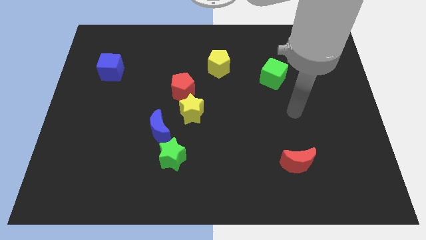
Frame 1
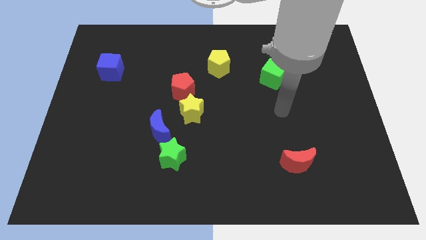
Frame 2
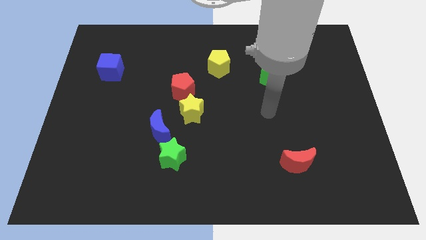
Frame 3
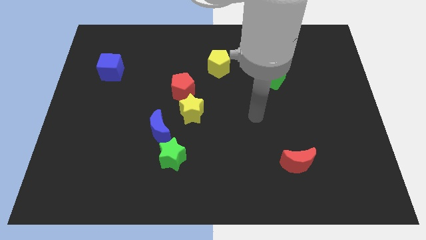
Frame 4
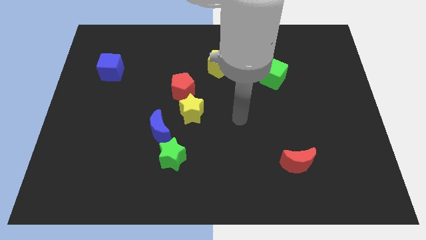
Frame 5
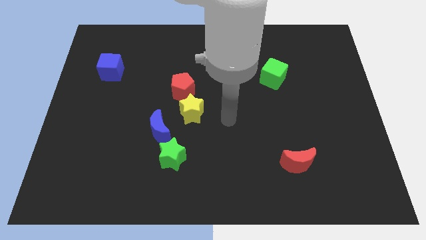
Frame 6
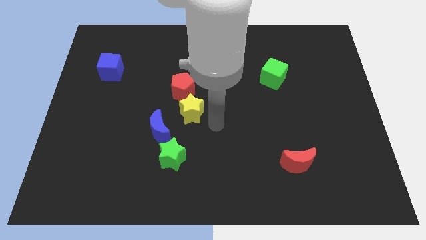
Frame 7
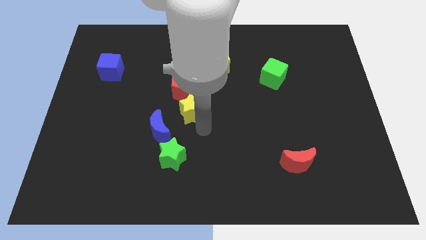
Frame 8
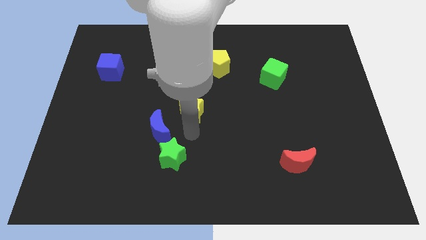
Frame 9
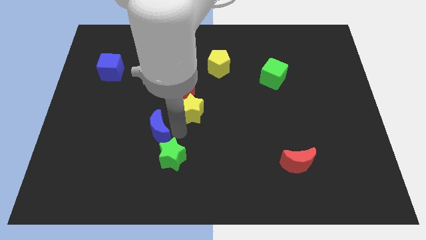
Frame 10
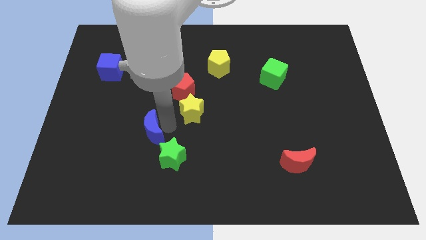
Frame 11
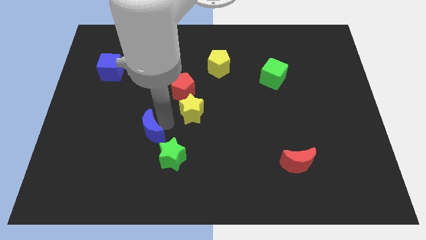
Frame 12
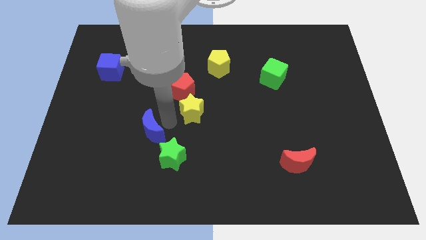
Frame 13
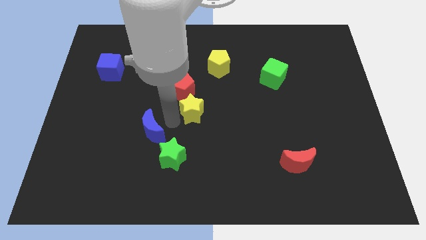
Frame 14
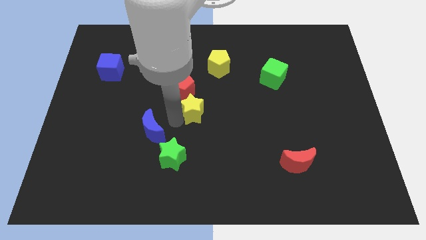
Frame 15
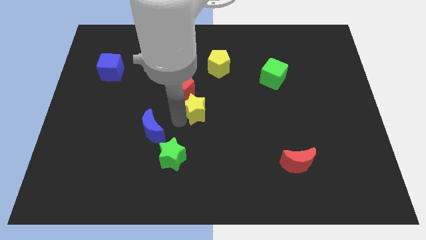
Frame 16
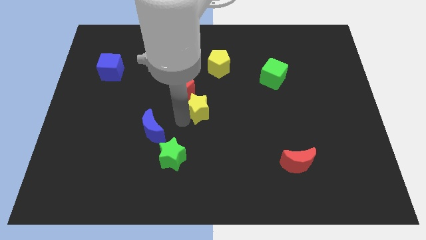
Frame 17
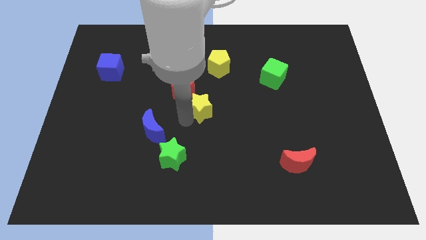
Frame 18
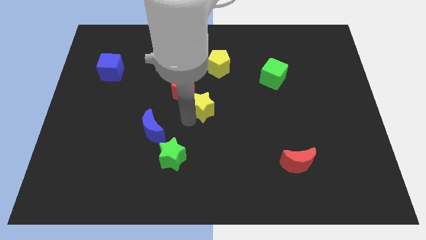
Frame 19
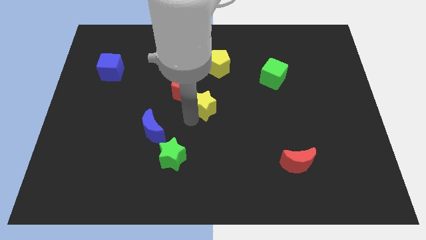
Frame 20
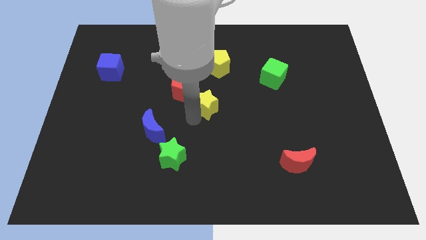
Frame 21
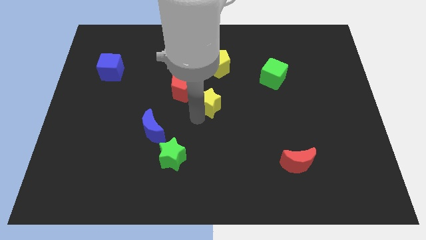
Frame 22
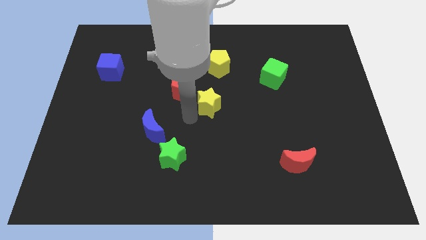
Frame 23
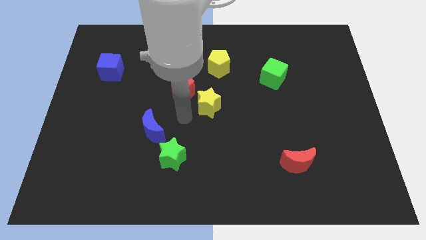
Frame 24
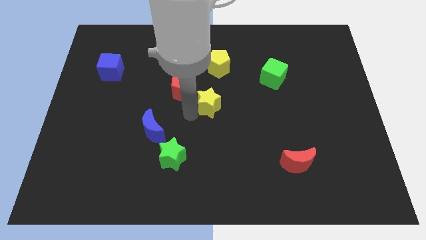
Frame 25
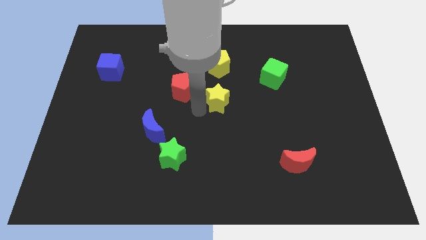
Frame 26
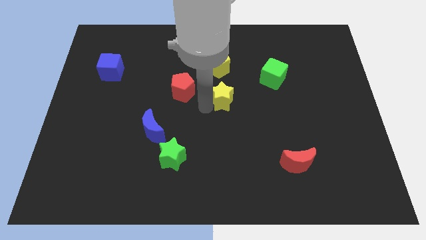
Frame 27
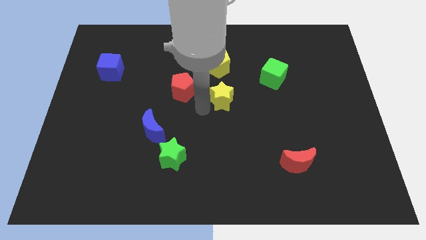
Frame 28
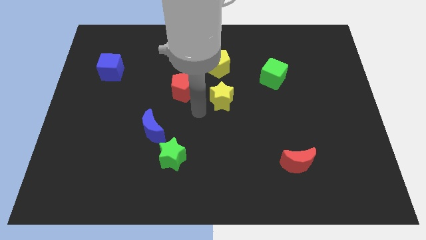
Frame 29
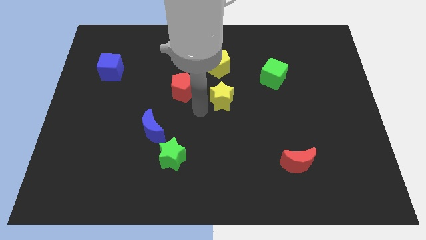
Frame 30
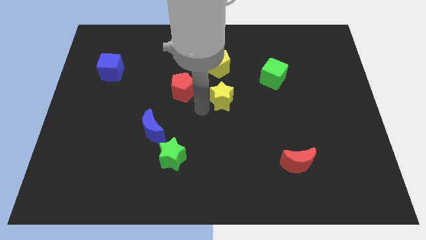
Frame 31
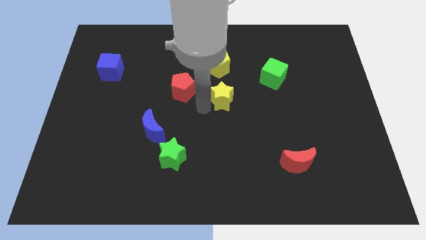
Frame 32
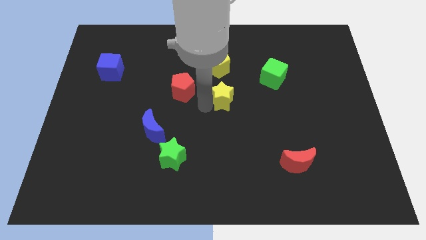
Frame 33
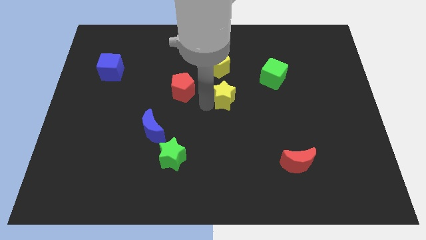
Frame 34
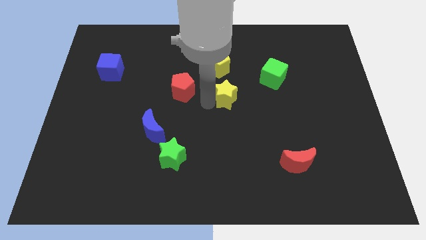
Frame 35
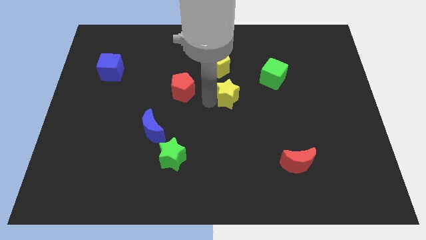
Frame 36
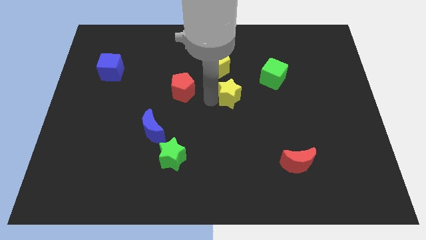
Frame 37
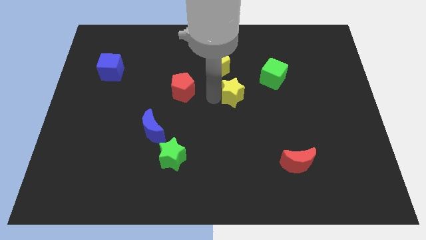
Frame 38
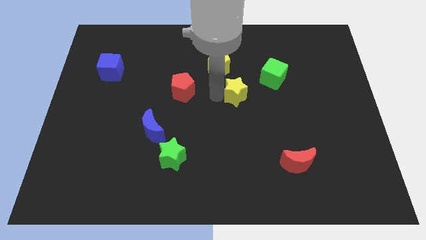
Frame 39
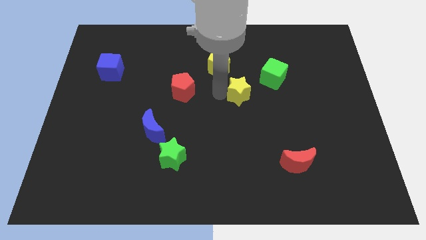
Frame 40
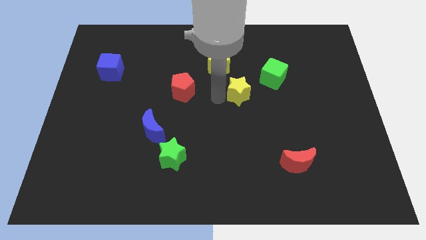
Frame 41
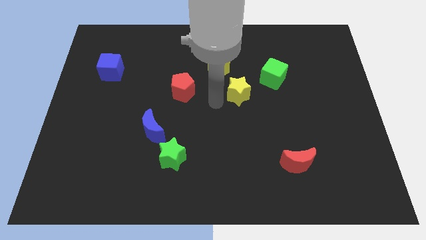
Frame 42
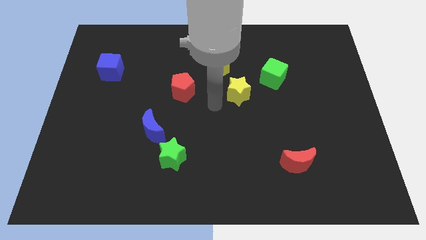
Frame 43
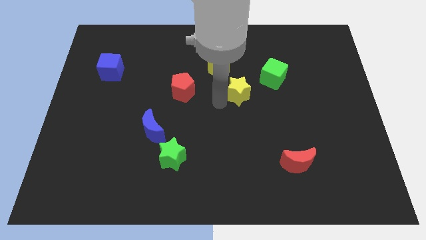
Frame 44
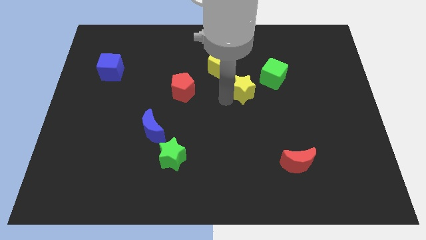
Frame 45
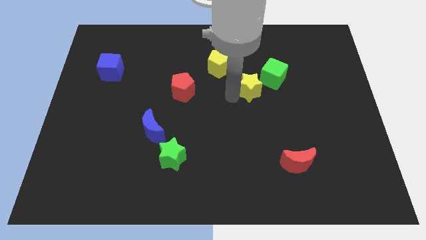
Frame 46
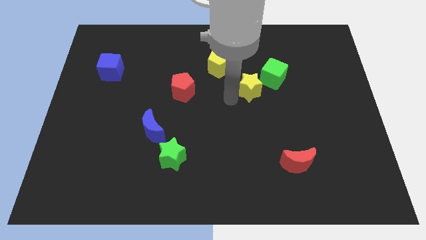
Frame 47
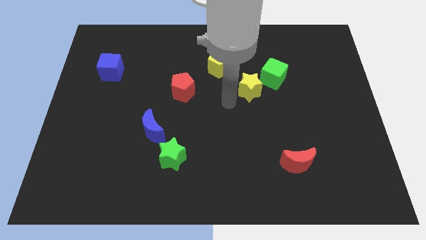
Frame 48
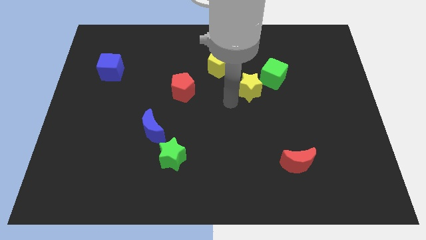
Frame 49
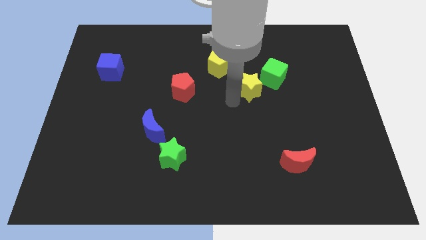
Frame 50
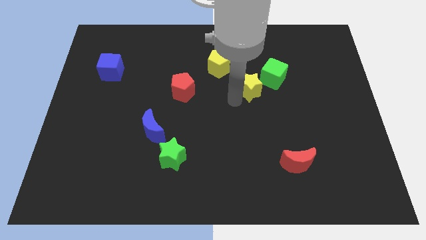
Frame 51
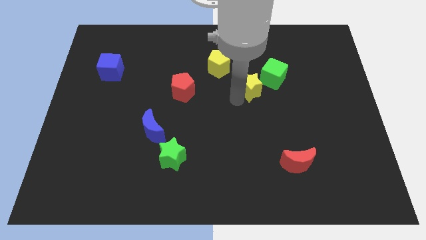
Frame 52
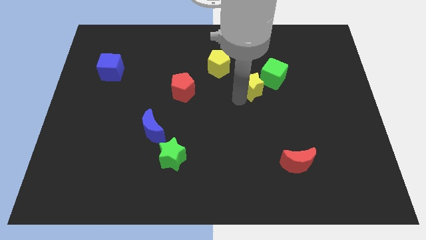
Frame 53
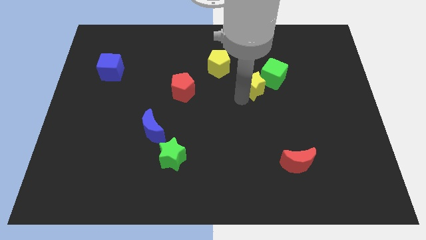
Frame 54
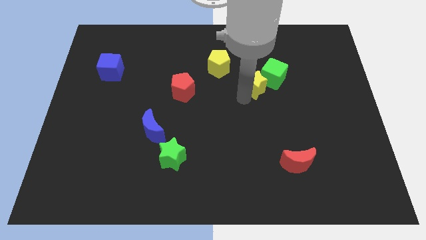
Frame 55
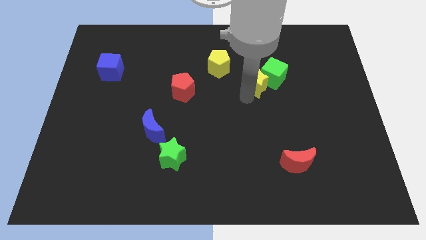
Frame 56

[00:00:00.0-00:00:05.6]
push the yellow star next to the green cube

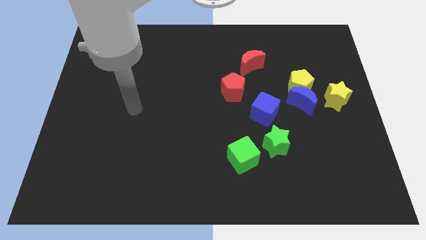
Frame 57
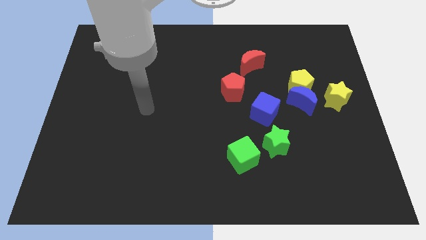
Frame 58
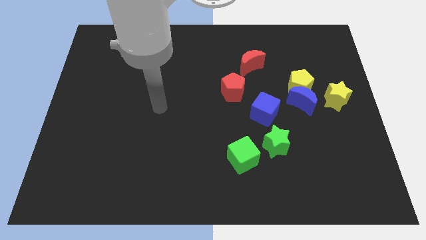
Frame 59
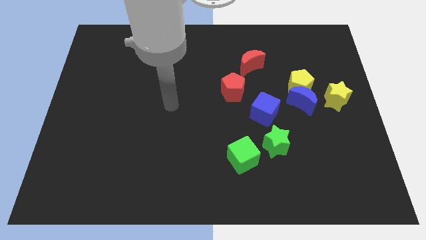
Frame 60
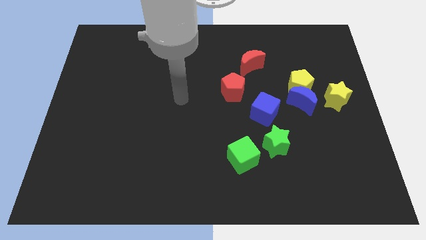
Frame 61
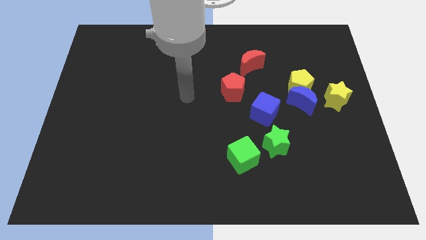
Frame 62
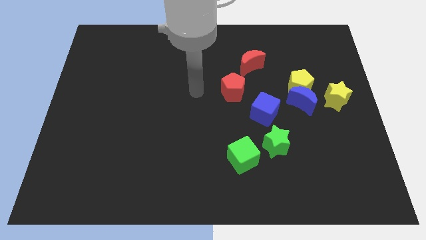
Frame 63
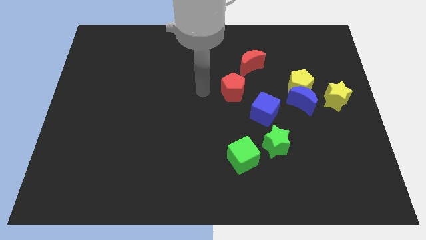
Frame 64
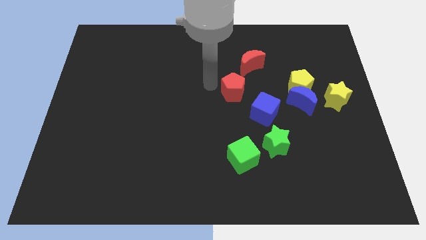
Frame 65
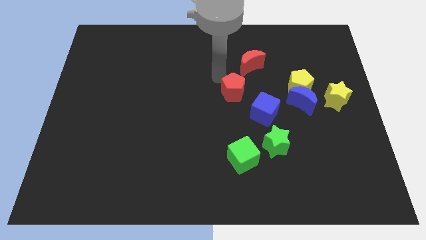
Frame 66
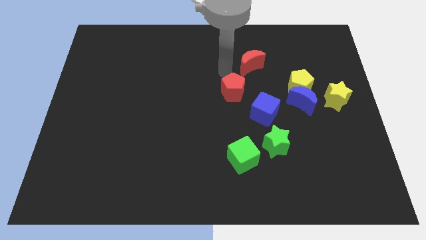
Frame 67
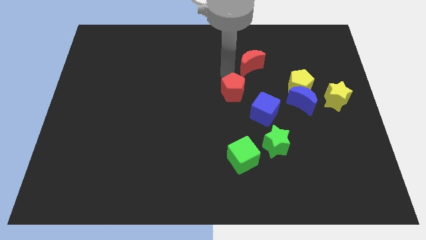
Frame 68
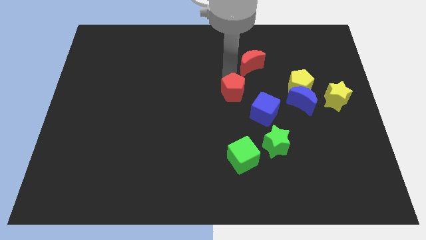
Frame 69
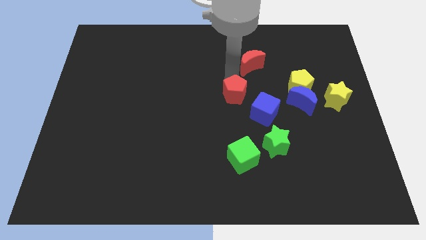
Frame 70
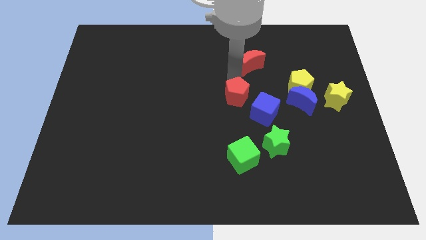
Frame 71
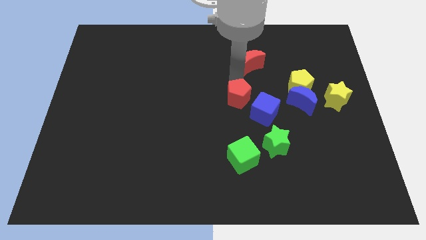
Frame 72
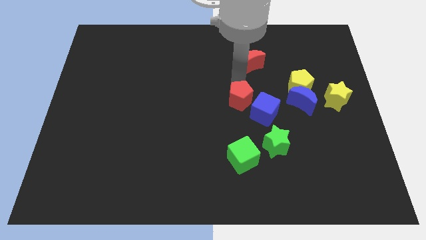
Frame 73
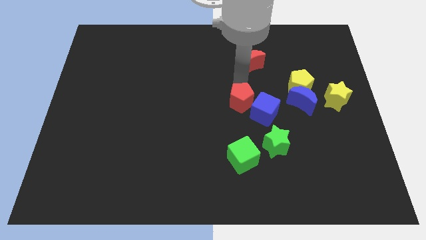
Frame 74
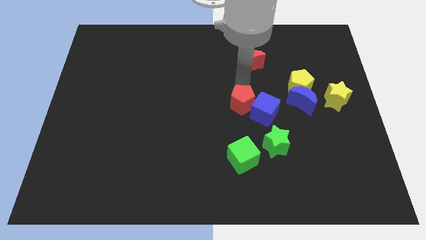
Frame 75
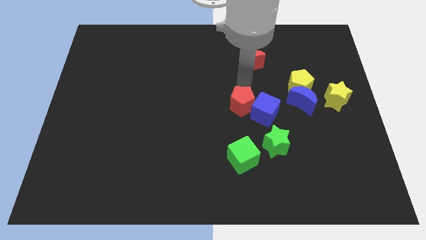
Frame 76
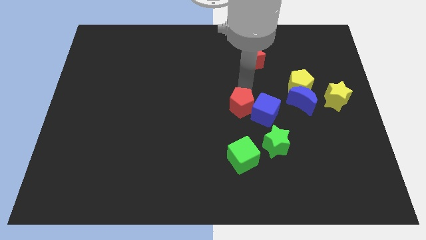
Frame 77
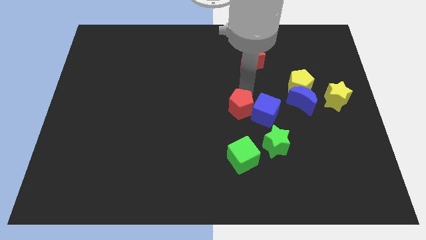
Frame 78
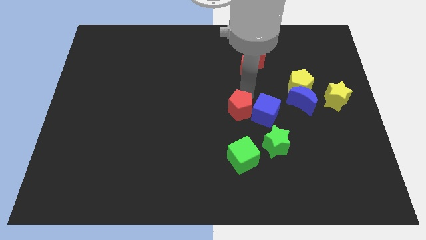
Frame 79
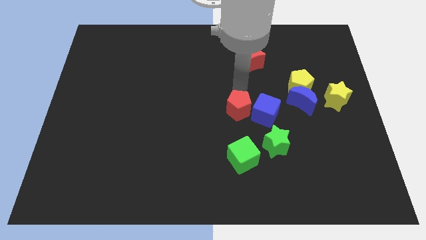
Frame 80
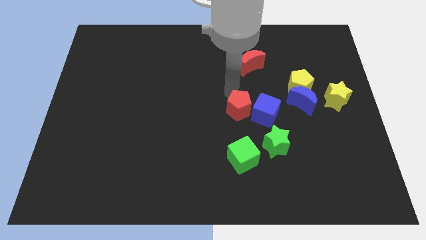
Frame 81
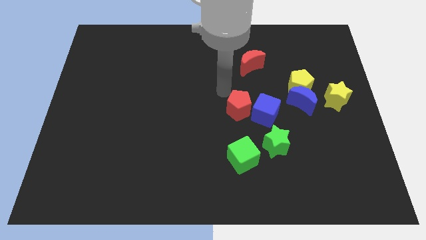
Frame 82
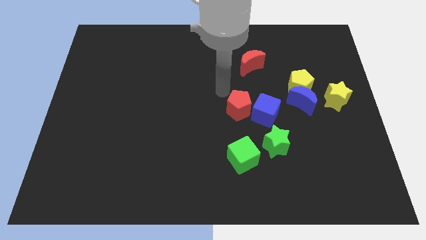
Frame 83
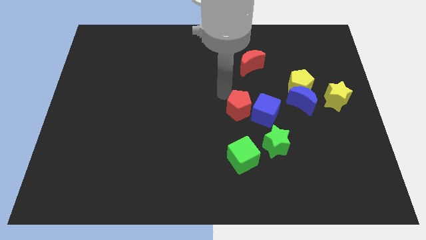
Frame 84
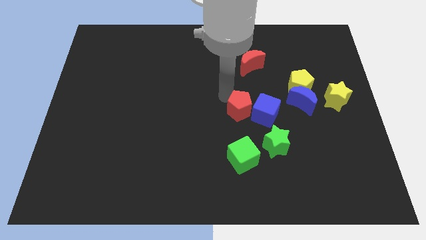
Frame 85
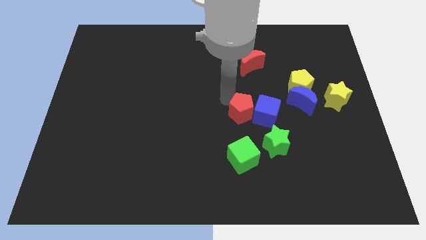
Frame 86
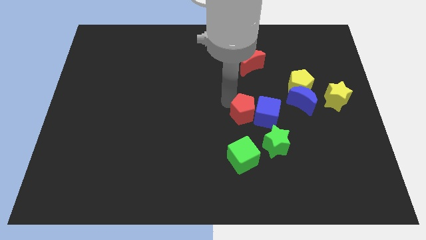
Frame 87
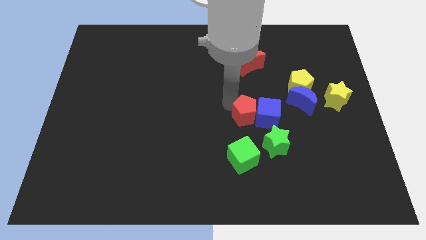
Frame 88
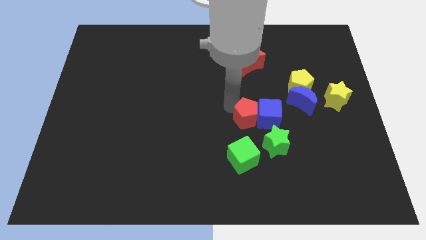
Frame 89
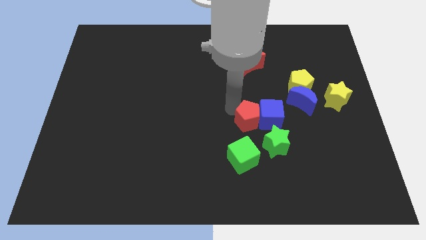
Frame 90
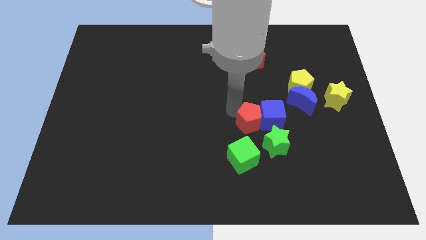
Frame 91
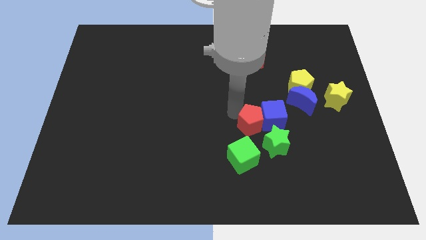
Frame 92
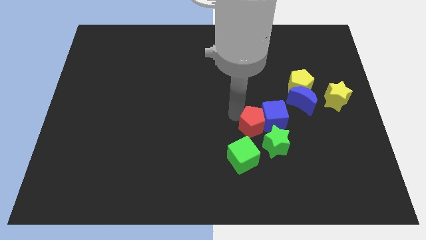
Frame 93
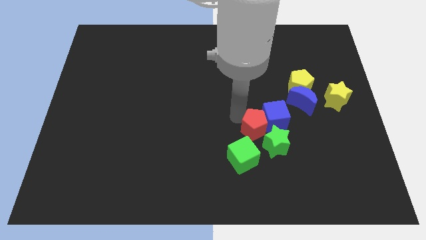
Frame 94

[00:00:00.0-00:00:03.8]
move the red pentagon towards the green star
